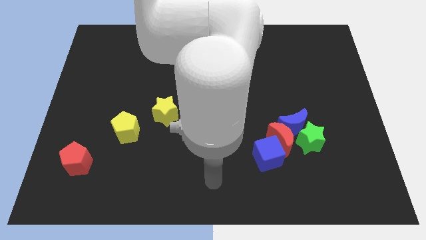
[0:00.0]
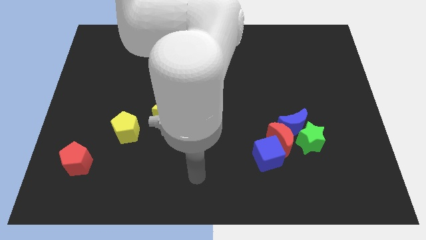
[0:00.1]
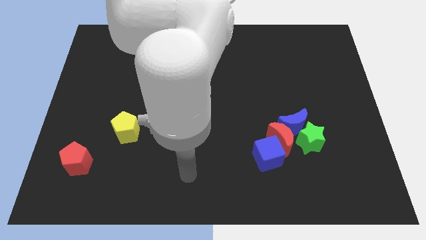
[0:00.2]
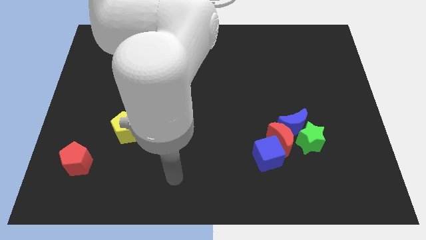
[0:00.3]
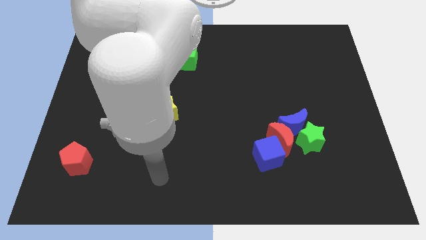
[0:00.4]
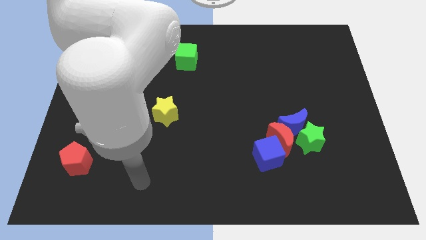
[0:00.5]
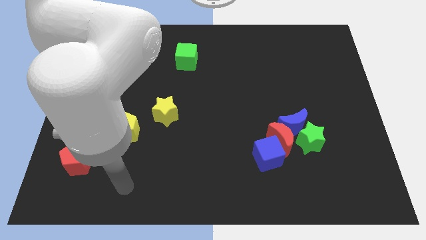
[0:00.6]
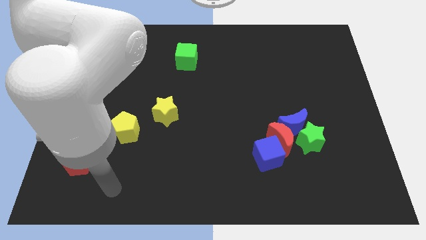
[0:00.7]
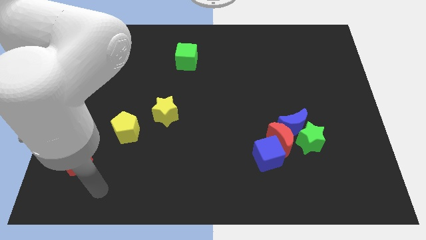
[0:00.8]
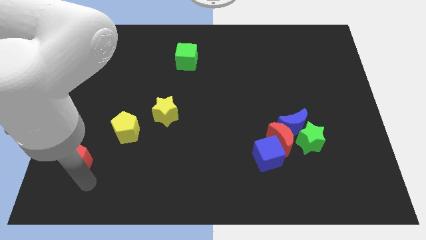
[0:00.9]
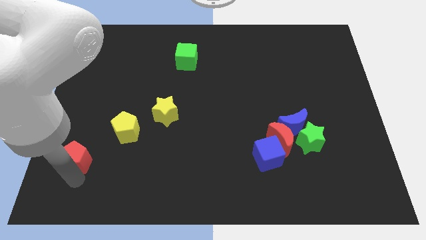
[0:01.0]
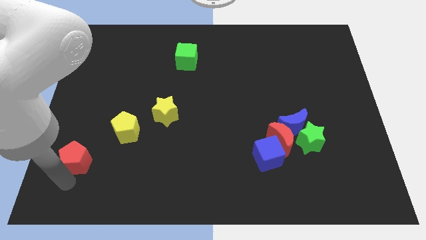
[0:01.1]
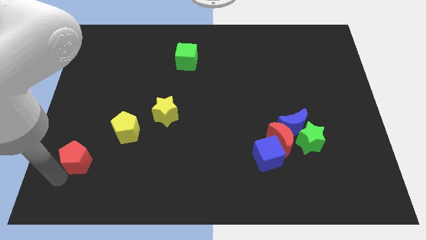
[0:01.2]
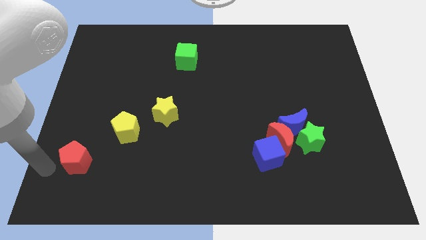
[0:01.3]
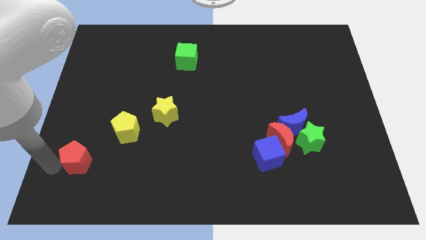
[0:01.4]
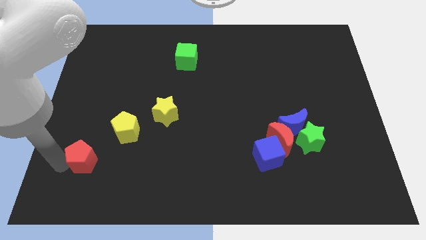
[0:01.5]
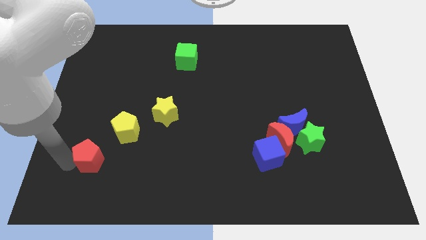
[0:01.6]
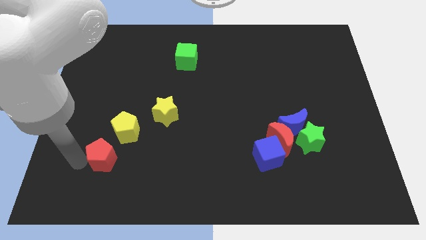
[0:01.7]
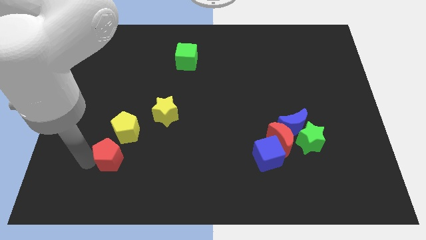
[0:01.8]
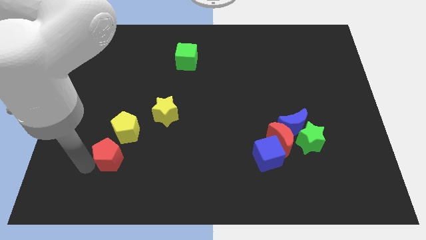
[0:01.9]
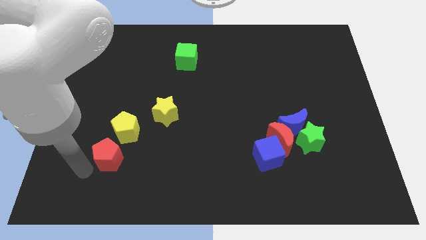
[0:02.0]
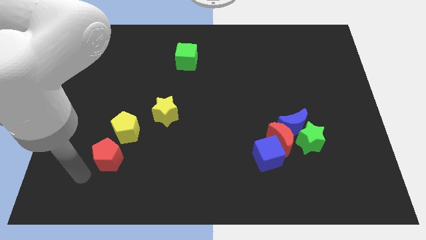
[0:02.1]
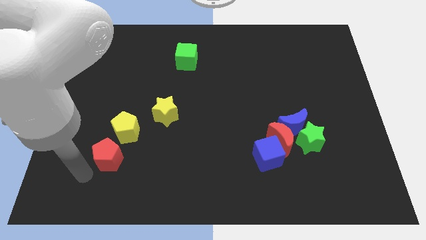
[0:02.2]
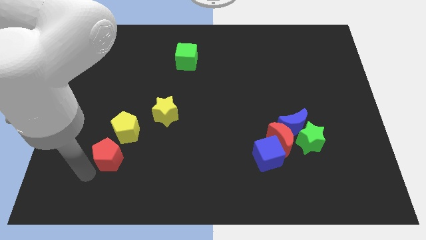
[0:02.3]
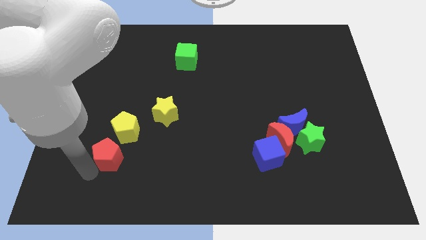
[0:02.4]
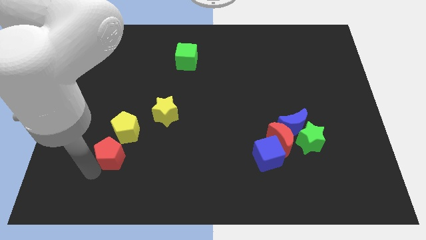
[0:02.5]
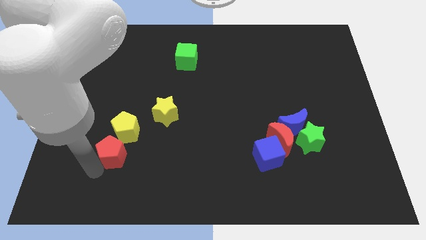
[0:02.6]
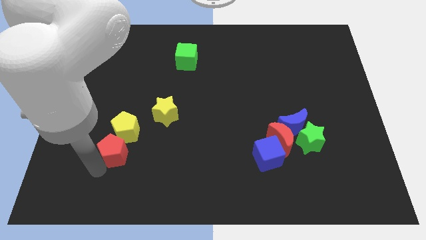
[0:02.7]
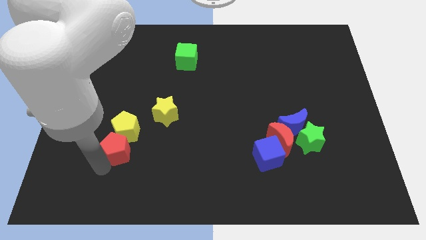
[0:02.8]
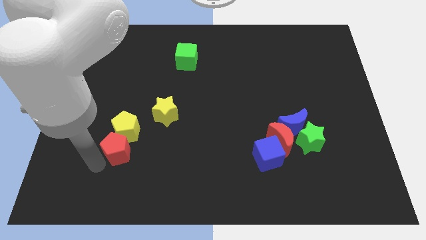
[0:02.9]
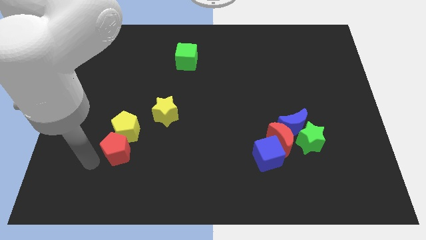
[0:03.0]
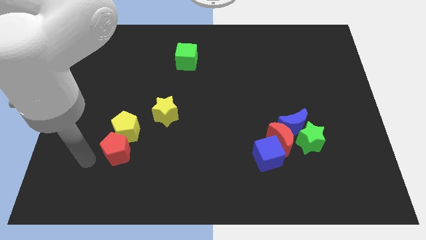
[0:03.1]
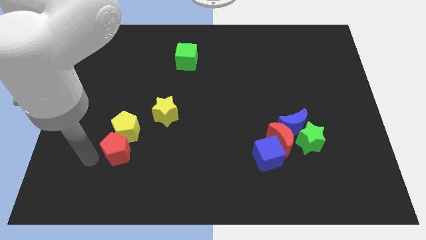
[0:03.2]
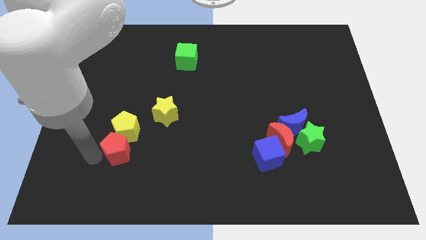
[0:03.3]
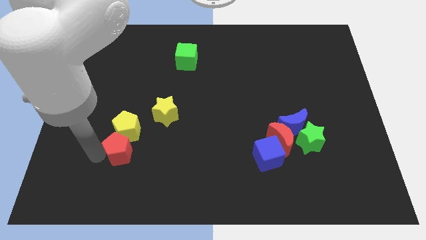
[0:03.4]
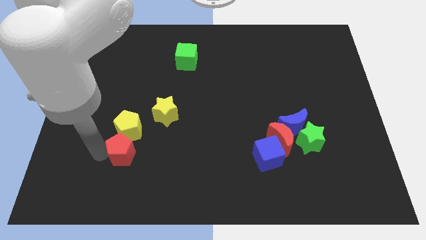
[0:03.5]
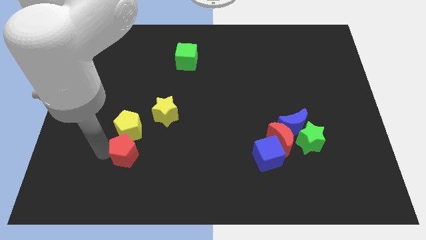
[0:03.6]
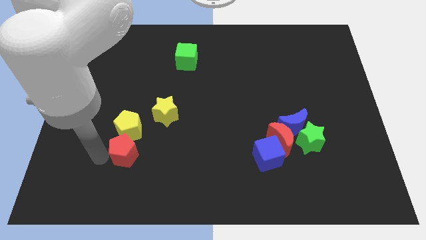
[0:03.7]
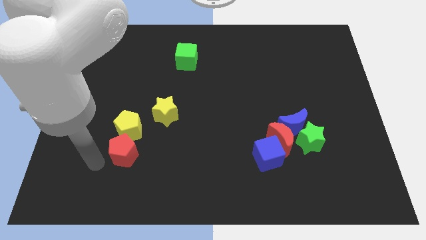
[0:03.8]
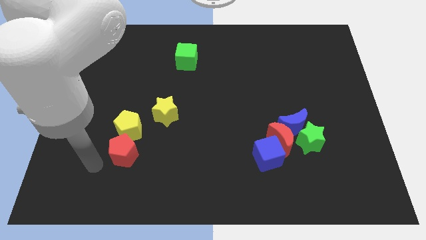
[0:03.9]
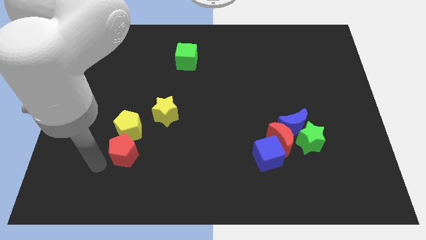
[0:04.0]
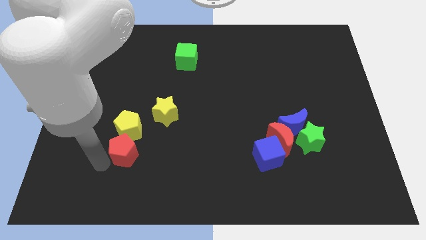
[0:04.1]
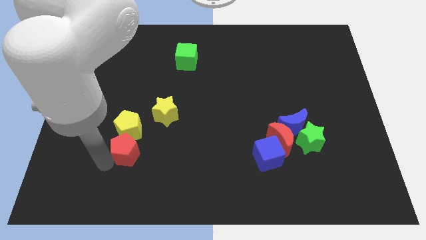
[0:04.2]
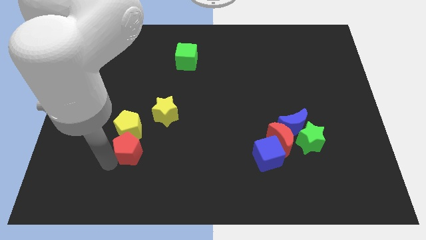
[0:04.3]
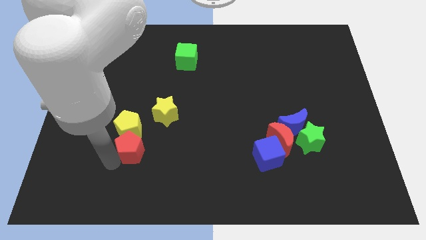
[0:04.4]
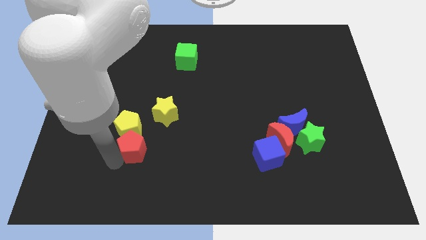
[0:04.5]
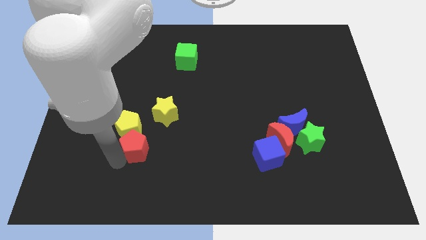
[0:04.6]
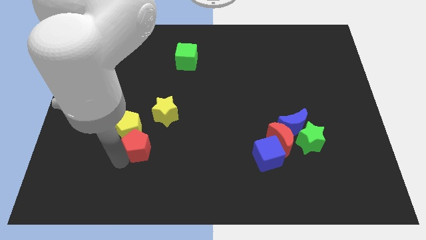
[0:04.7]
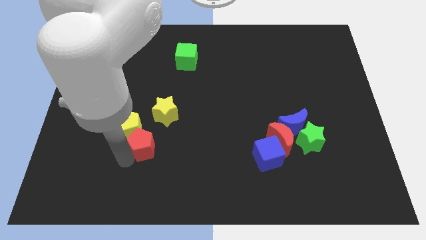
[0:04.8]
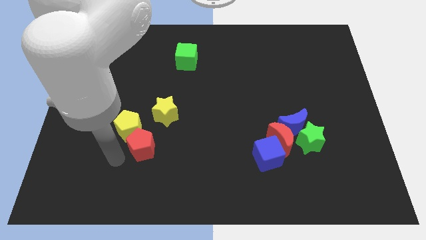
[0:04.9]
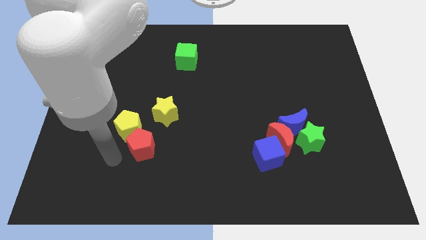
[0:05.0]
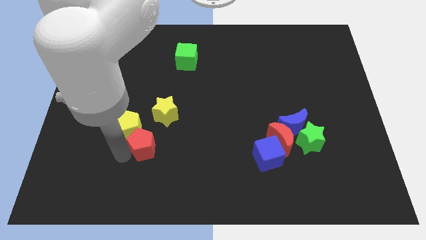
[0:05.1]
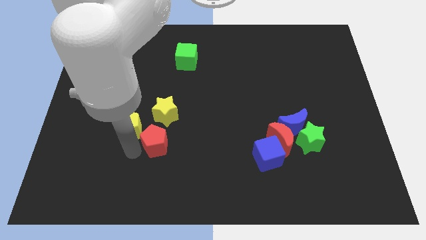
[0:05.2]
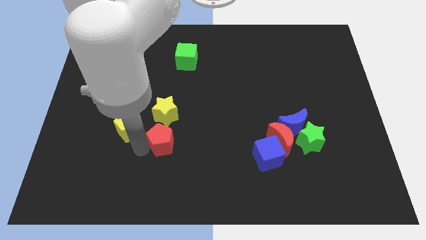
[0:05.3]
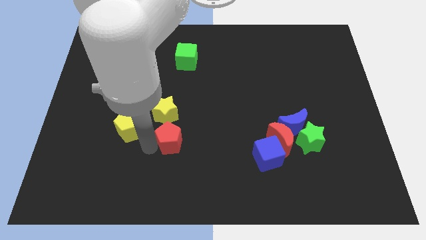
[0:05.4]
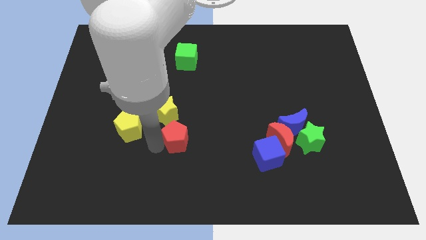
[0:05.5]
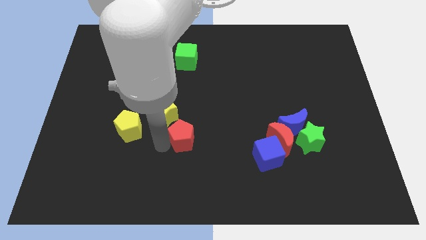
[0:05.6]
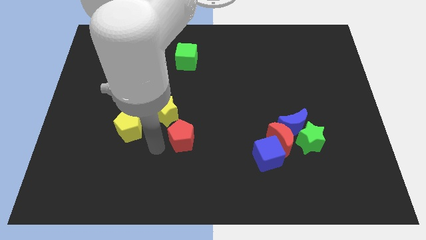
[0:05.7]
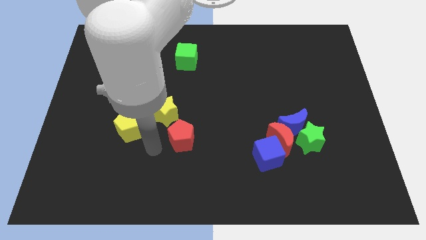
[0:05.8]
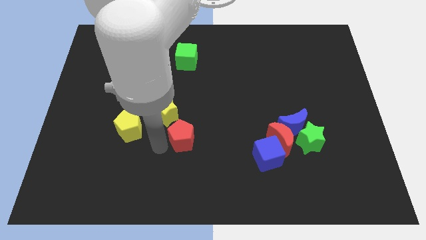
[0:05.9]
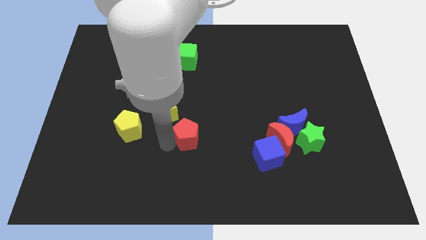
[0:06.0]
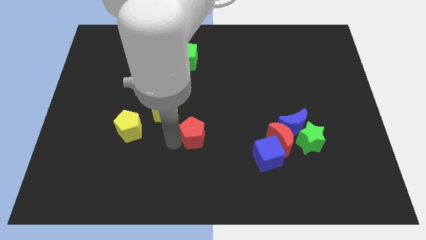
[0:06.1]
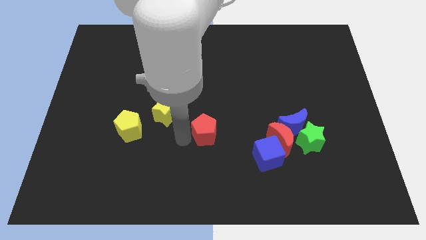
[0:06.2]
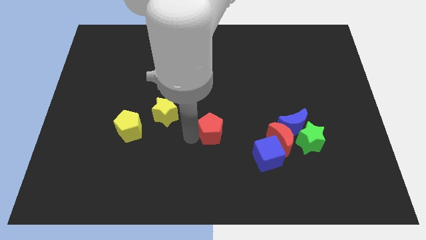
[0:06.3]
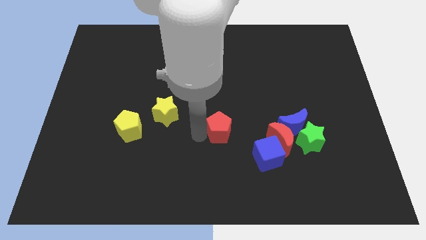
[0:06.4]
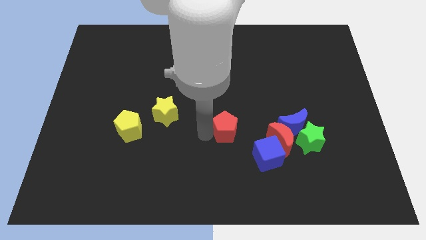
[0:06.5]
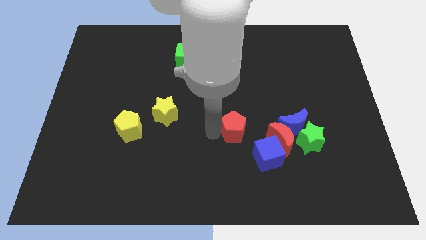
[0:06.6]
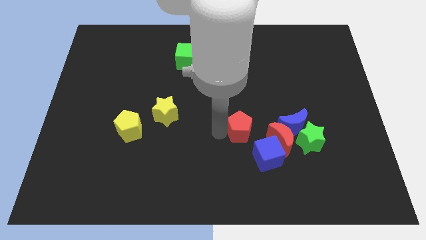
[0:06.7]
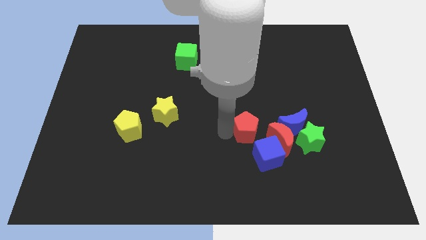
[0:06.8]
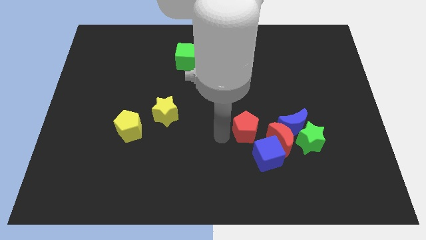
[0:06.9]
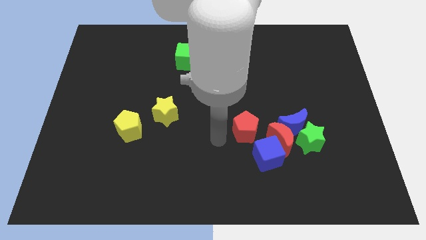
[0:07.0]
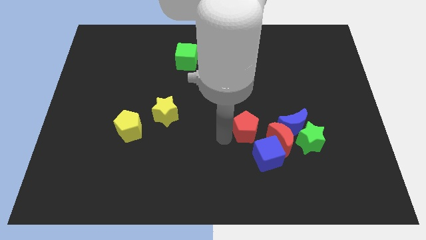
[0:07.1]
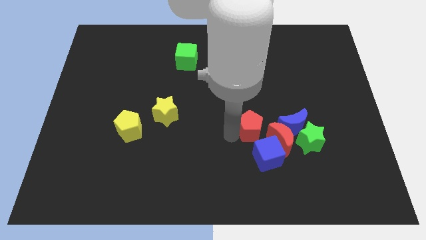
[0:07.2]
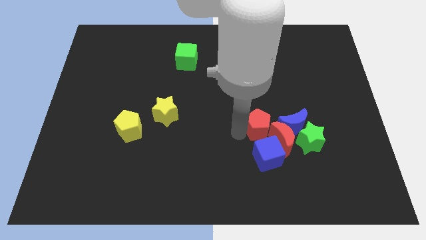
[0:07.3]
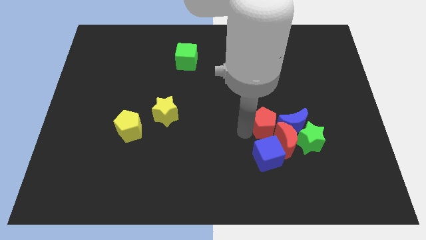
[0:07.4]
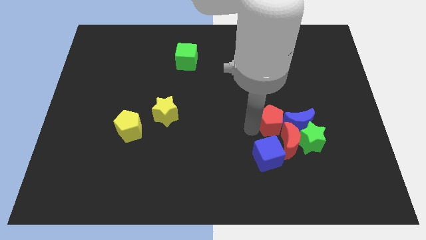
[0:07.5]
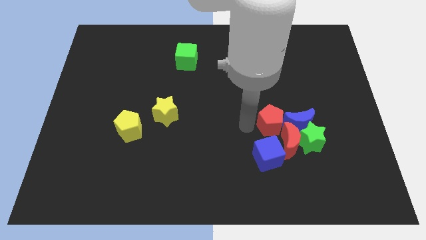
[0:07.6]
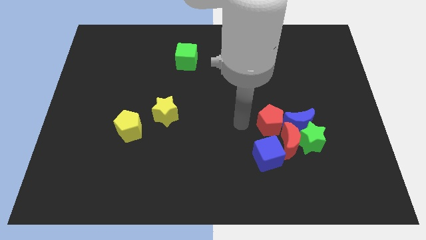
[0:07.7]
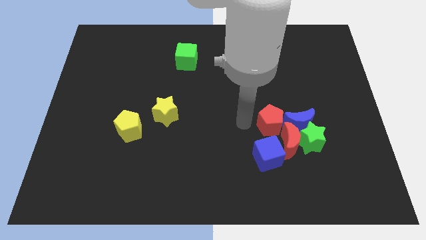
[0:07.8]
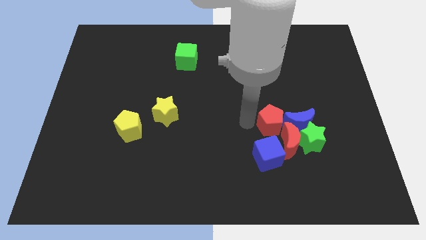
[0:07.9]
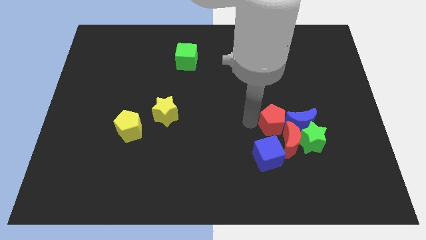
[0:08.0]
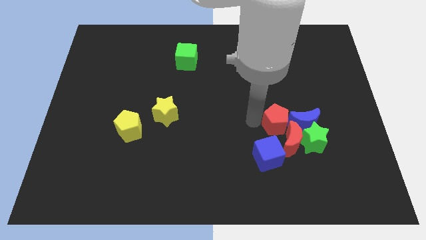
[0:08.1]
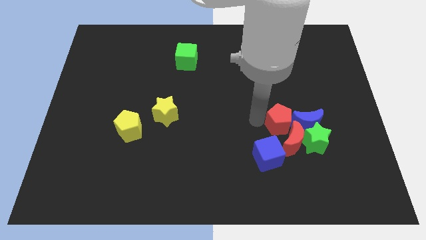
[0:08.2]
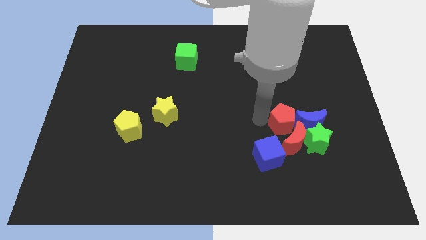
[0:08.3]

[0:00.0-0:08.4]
push the red pentagon to the blue moon
